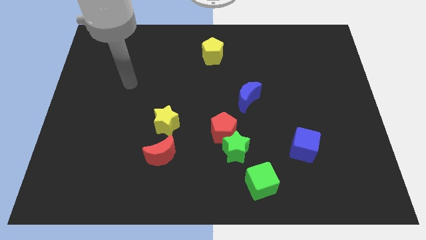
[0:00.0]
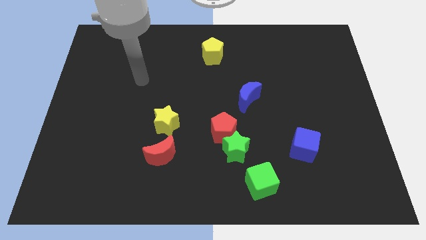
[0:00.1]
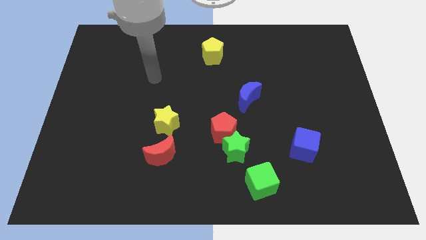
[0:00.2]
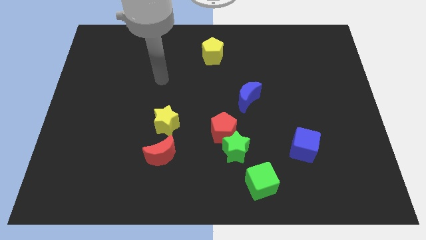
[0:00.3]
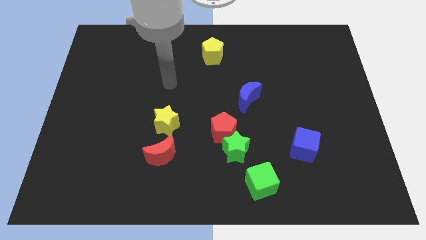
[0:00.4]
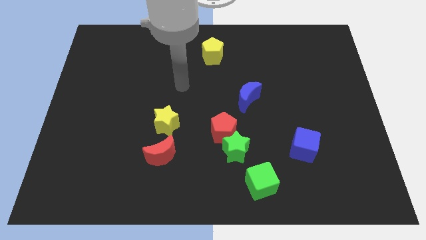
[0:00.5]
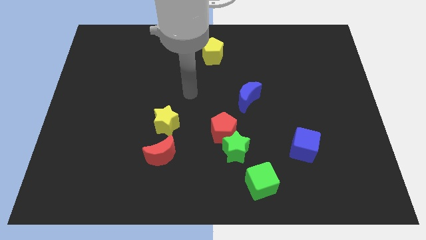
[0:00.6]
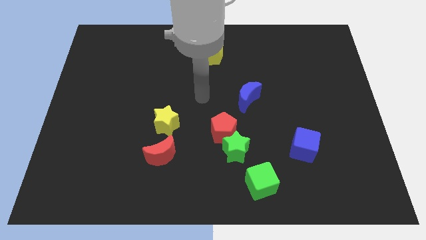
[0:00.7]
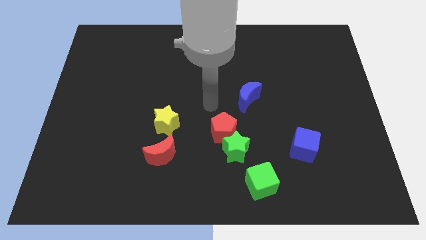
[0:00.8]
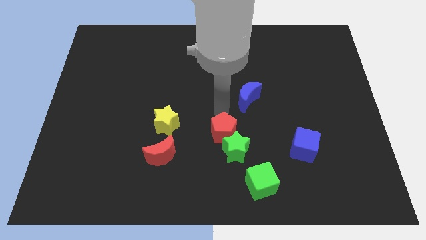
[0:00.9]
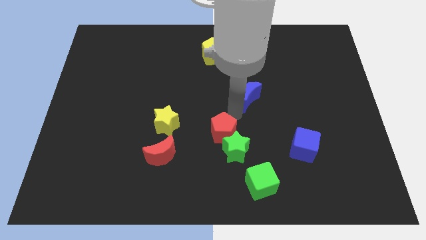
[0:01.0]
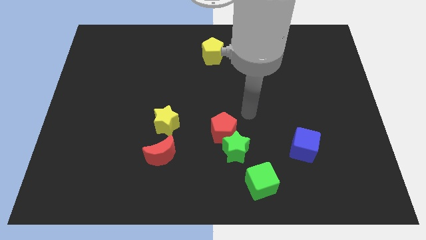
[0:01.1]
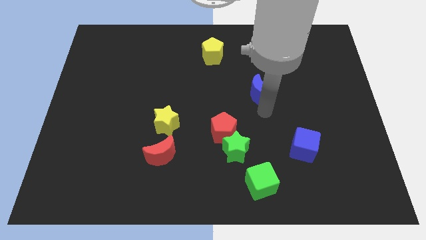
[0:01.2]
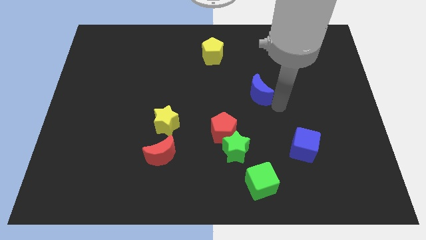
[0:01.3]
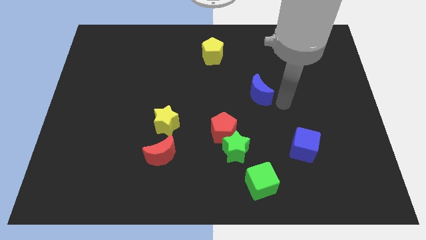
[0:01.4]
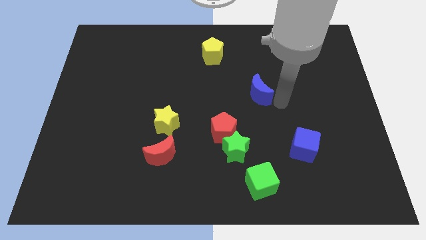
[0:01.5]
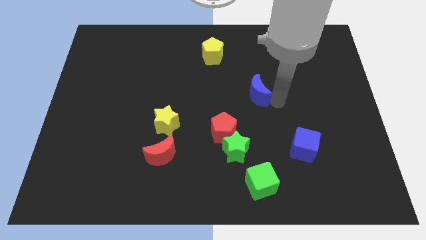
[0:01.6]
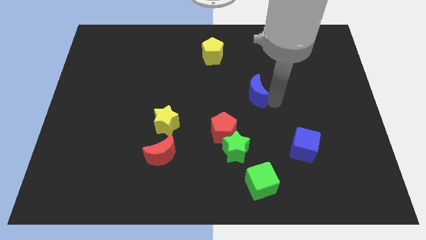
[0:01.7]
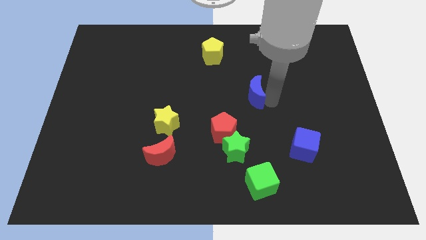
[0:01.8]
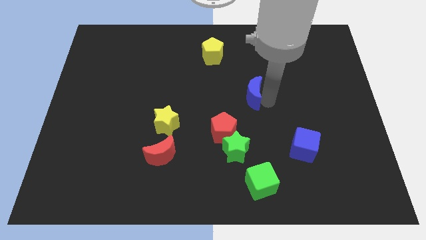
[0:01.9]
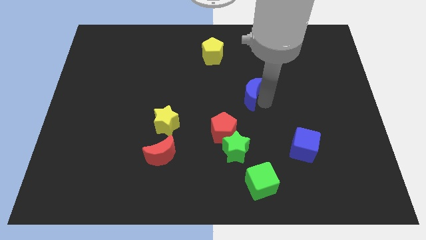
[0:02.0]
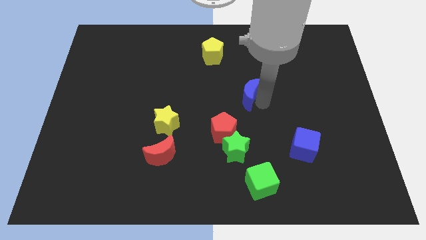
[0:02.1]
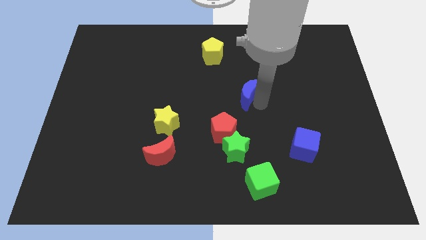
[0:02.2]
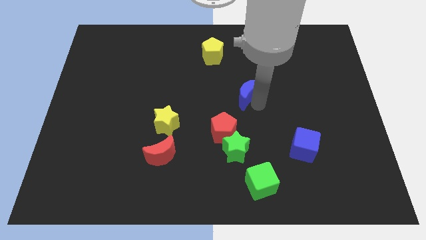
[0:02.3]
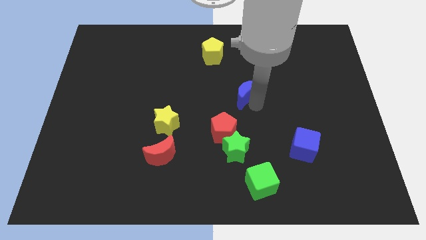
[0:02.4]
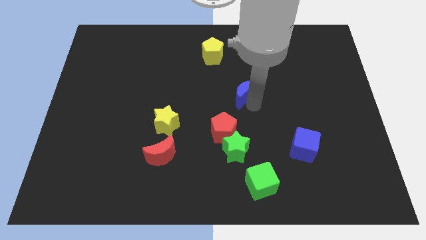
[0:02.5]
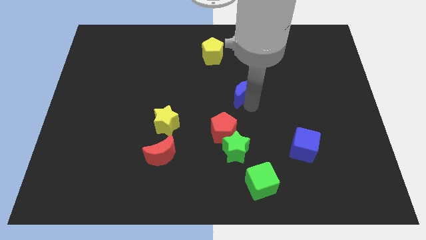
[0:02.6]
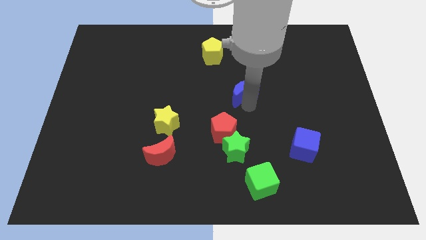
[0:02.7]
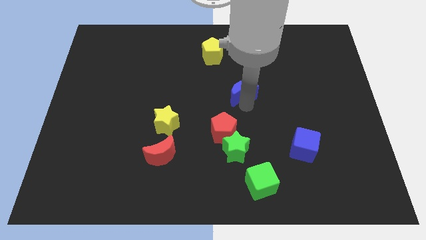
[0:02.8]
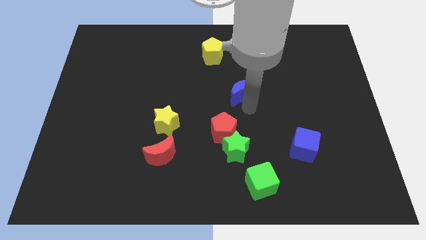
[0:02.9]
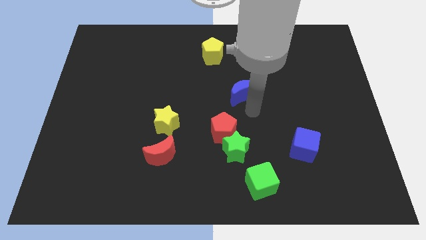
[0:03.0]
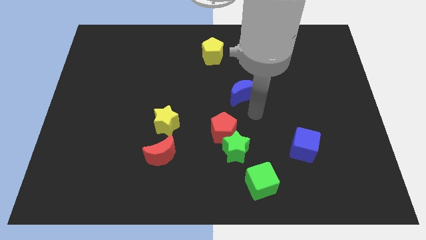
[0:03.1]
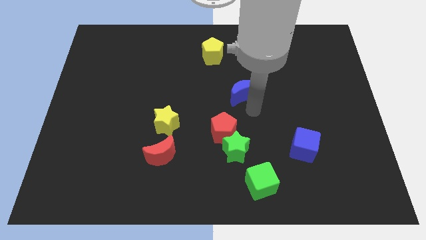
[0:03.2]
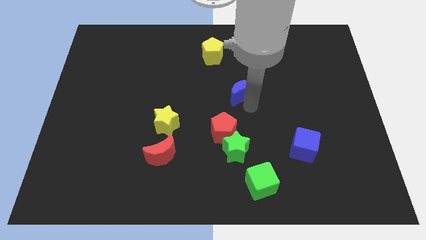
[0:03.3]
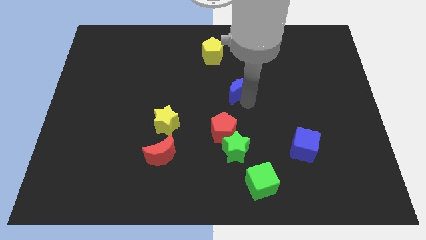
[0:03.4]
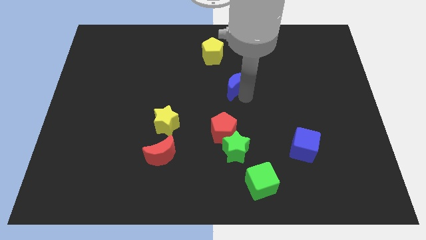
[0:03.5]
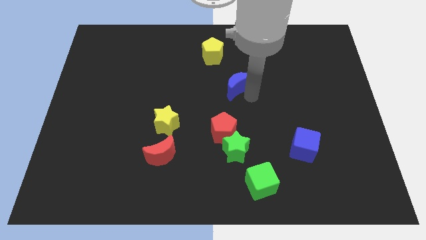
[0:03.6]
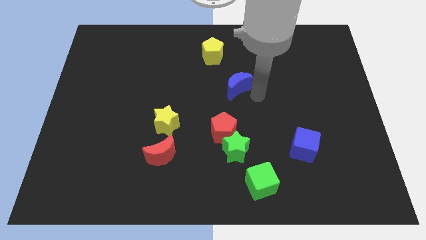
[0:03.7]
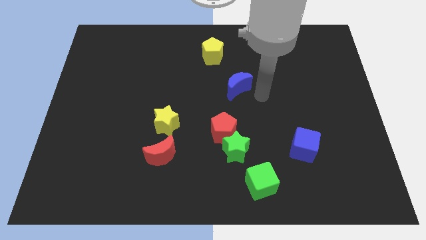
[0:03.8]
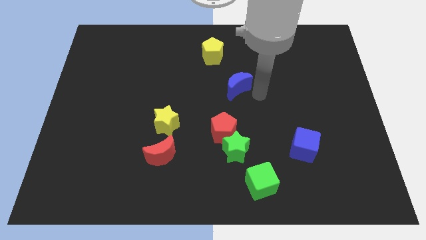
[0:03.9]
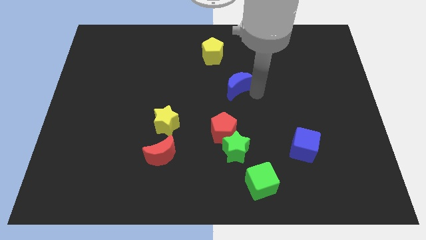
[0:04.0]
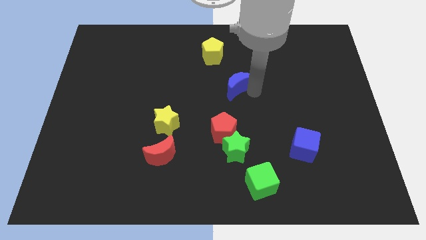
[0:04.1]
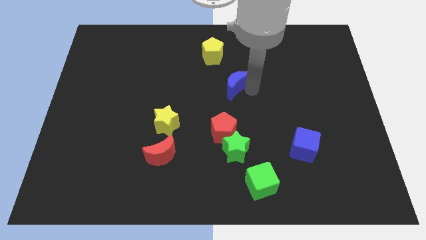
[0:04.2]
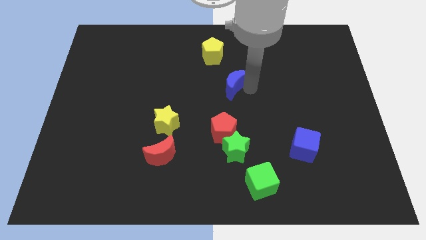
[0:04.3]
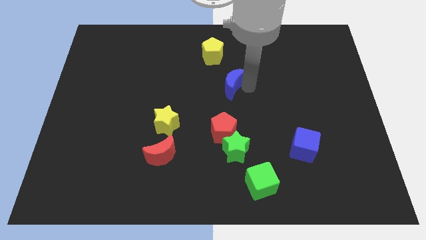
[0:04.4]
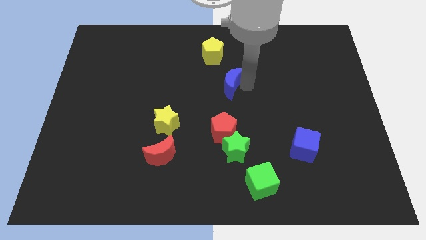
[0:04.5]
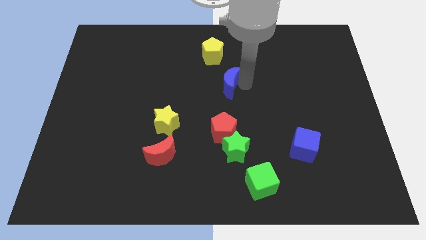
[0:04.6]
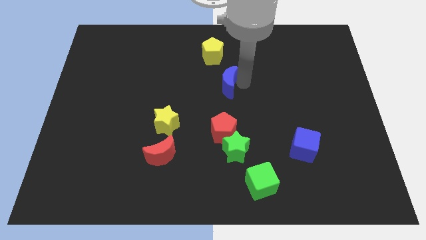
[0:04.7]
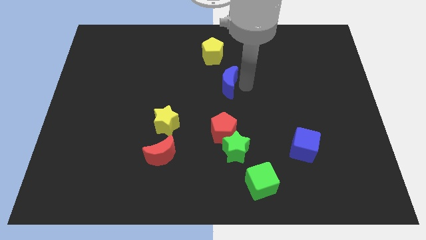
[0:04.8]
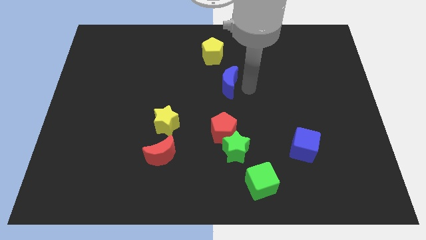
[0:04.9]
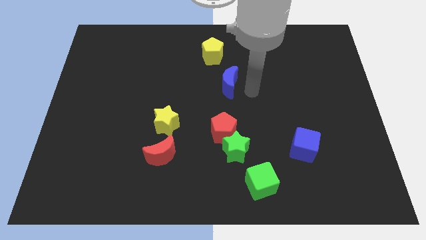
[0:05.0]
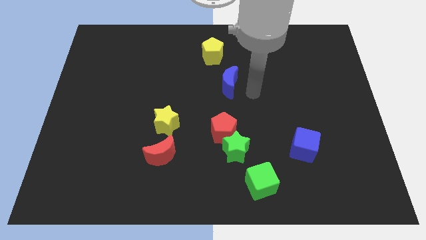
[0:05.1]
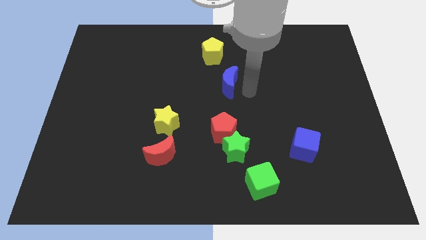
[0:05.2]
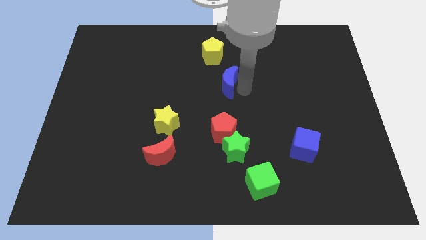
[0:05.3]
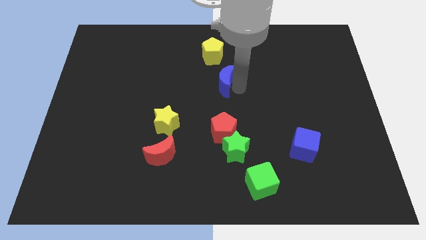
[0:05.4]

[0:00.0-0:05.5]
move the blue moon a bit diagonally up and to the left

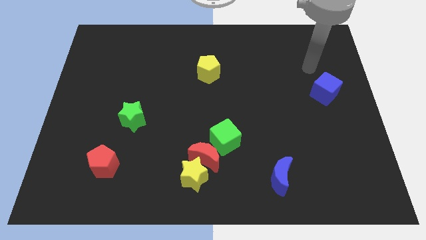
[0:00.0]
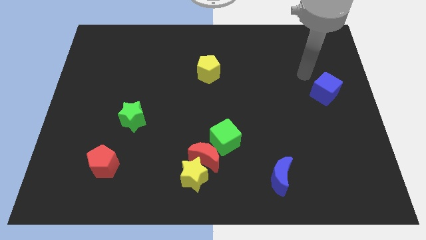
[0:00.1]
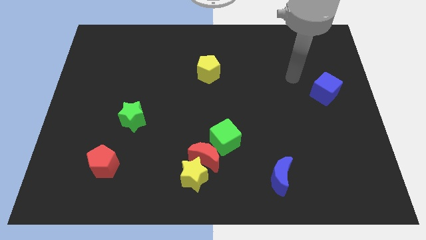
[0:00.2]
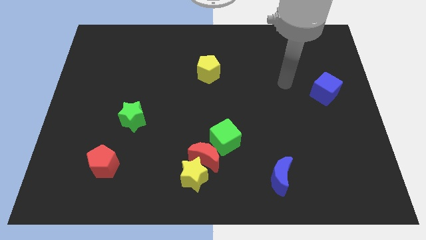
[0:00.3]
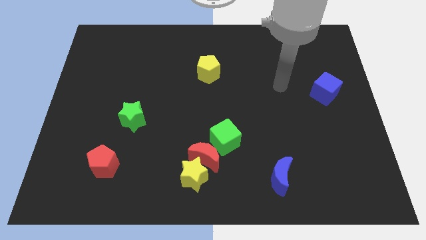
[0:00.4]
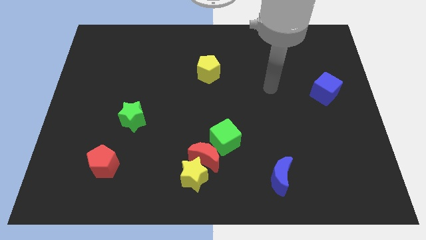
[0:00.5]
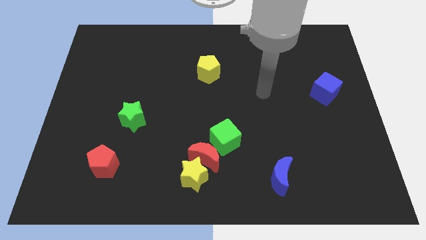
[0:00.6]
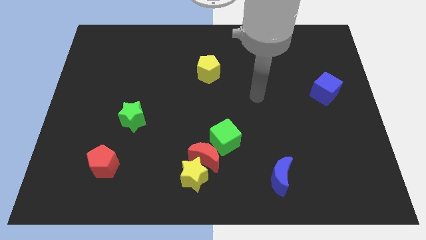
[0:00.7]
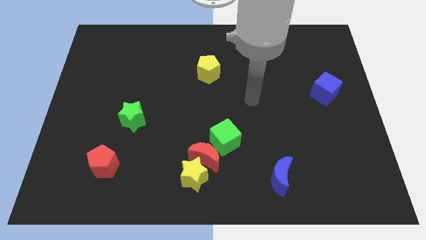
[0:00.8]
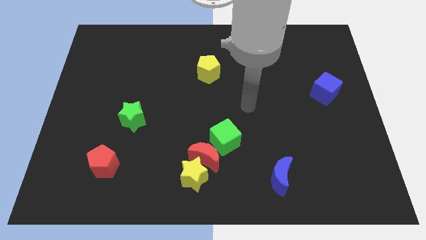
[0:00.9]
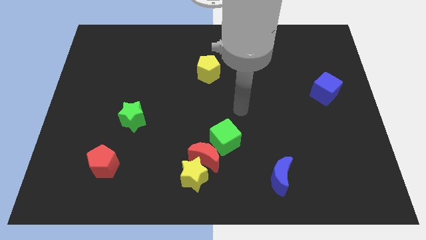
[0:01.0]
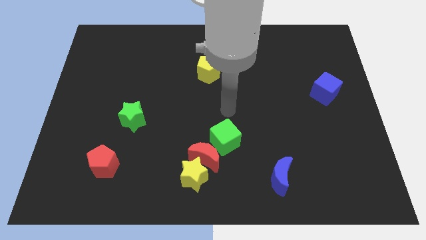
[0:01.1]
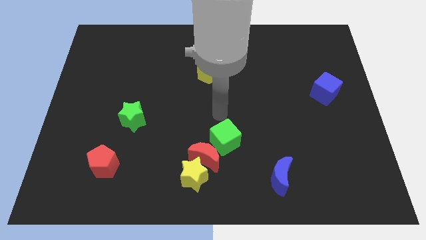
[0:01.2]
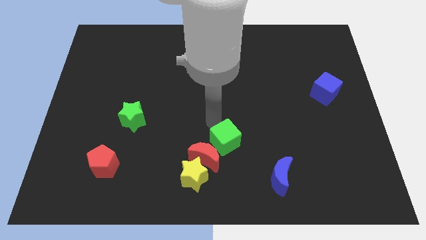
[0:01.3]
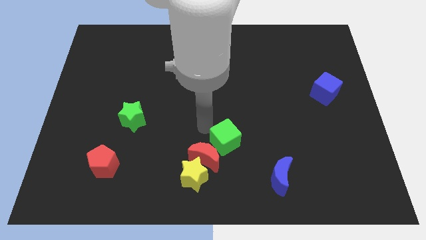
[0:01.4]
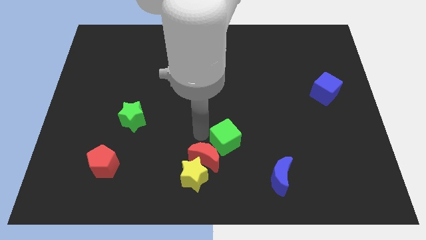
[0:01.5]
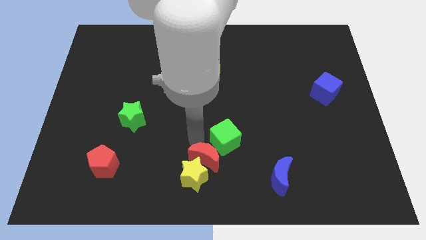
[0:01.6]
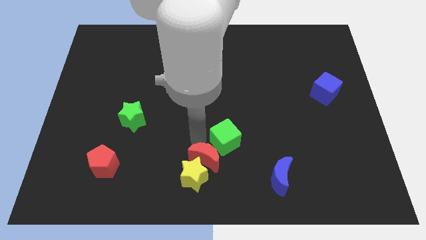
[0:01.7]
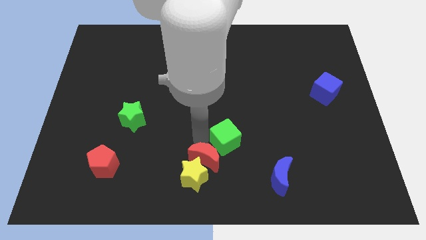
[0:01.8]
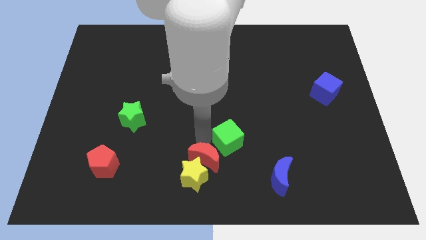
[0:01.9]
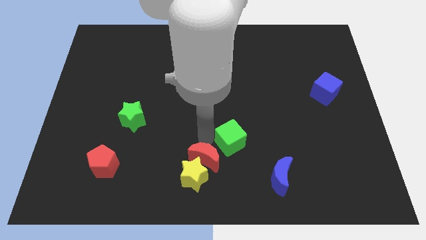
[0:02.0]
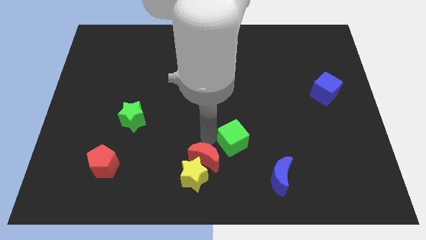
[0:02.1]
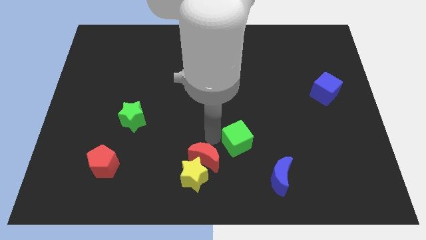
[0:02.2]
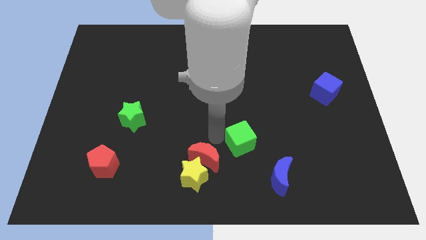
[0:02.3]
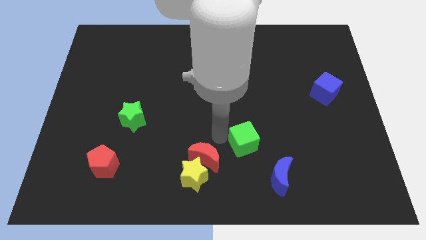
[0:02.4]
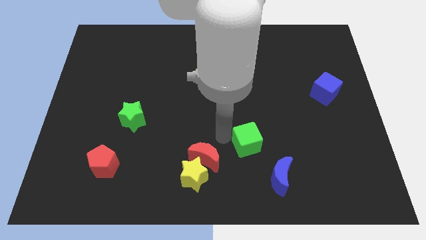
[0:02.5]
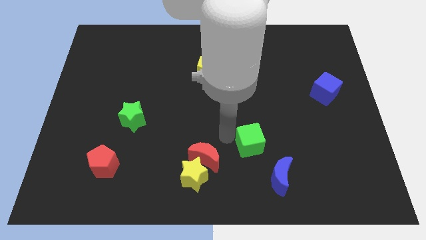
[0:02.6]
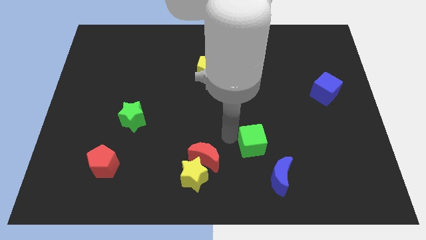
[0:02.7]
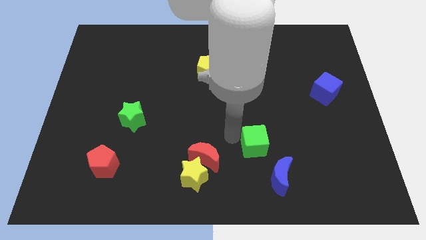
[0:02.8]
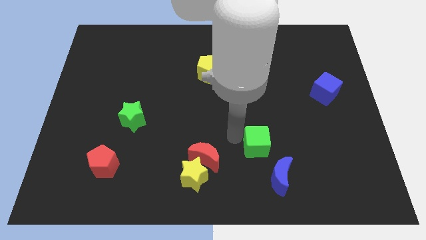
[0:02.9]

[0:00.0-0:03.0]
push the green cube a bit to the right

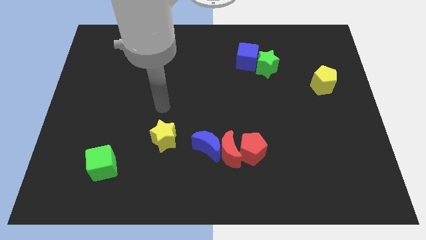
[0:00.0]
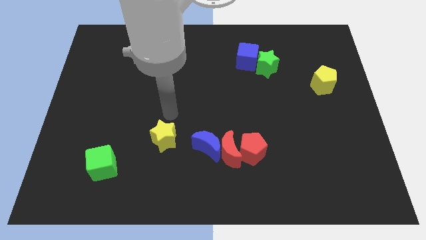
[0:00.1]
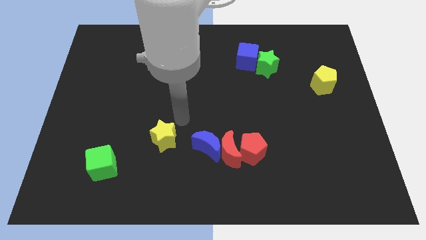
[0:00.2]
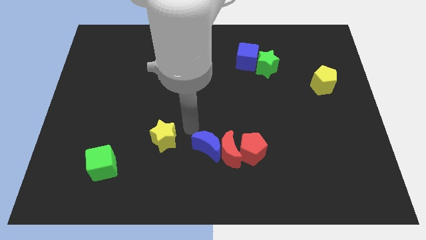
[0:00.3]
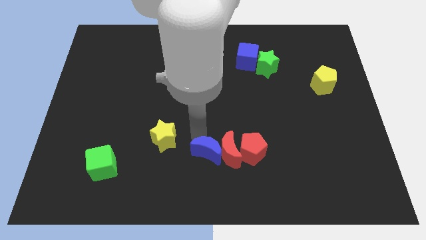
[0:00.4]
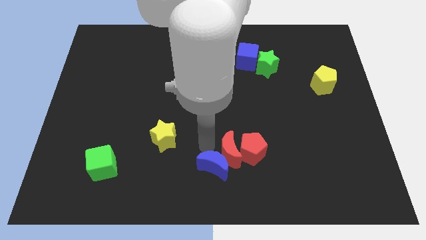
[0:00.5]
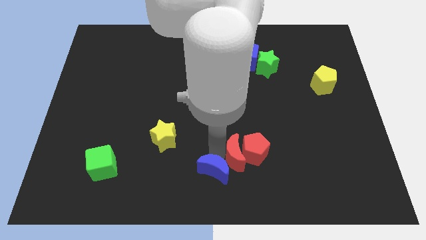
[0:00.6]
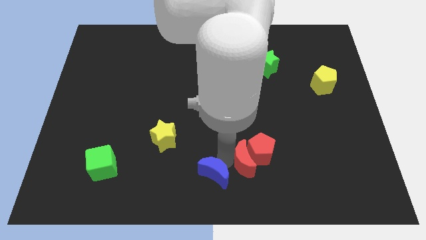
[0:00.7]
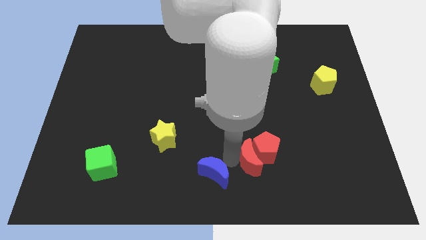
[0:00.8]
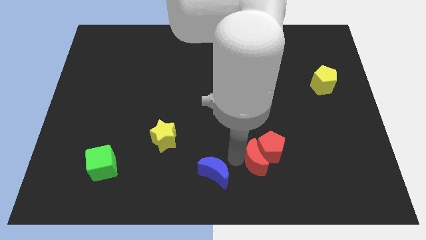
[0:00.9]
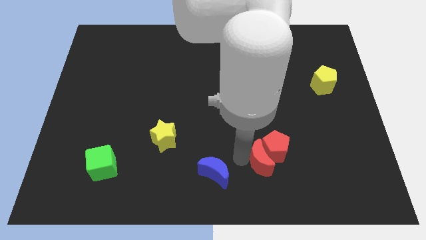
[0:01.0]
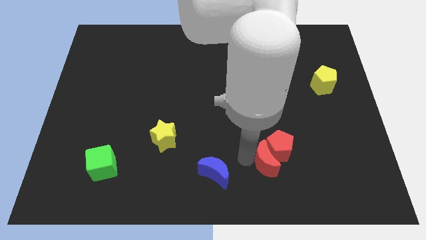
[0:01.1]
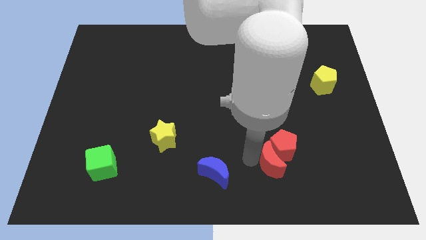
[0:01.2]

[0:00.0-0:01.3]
push the red pentagon a little bit to the right
